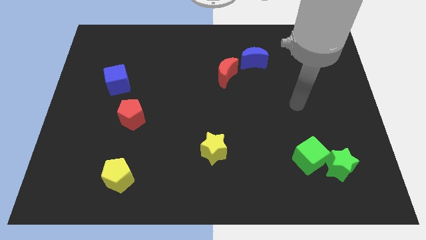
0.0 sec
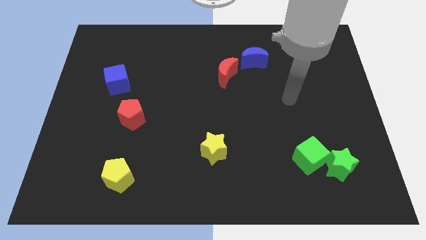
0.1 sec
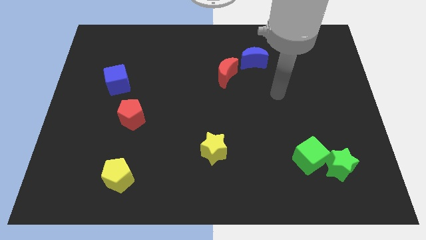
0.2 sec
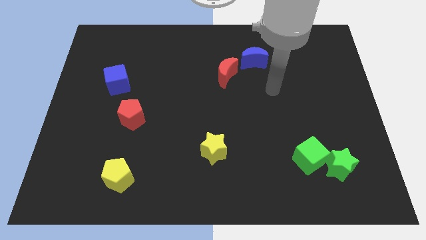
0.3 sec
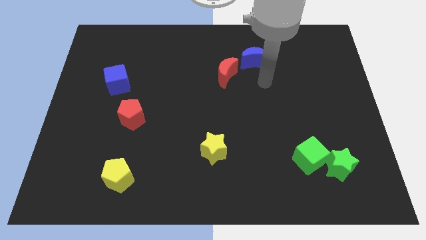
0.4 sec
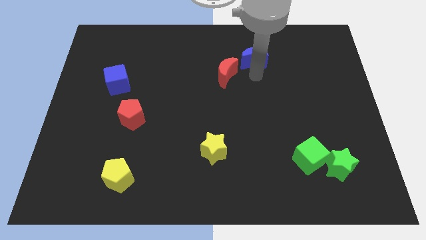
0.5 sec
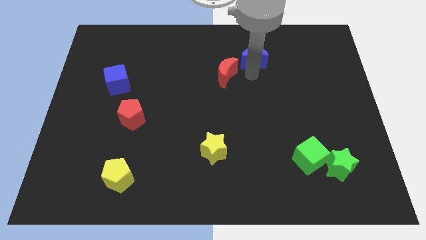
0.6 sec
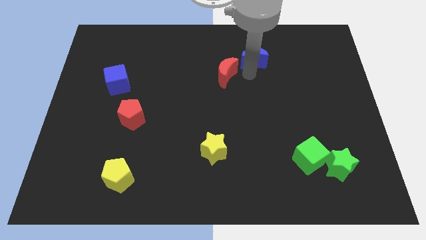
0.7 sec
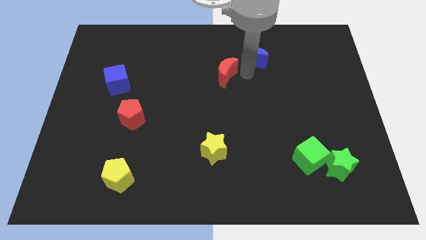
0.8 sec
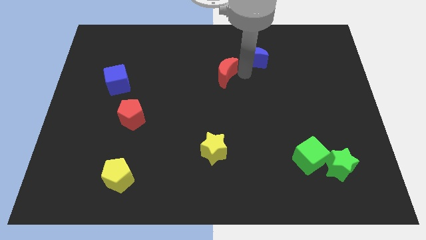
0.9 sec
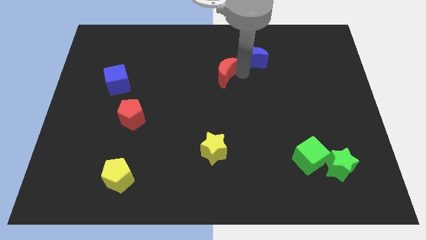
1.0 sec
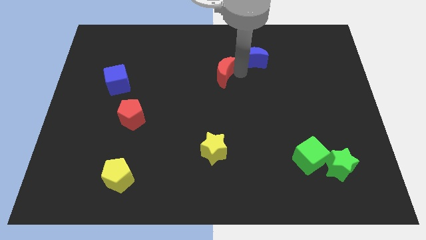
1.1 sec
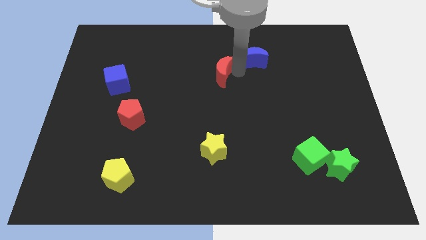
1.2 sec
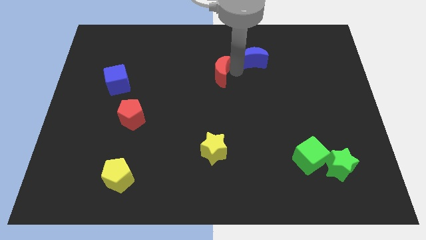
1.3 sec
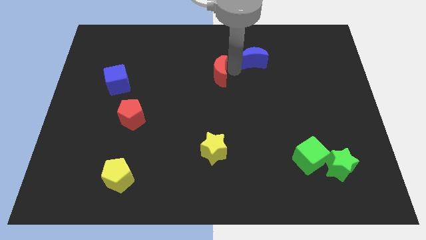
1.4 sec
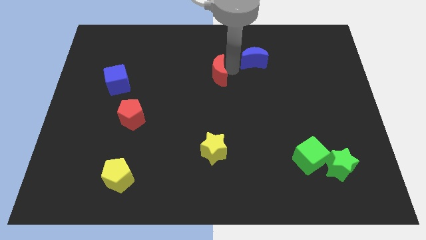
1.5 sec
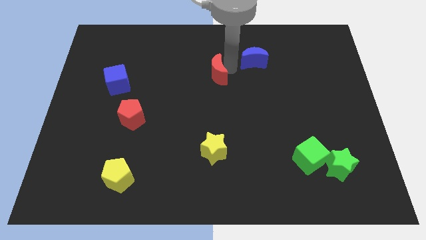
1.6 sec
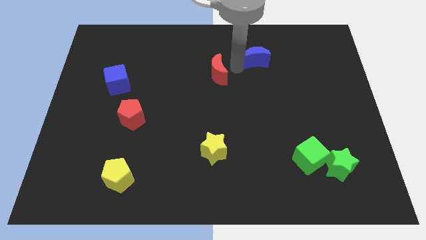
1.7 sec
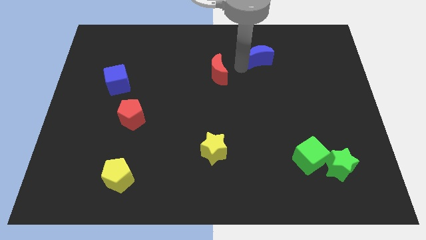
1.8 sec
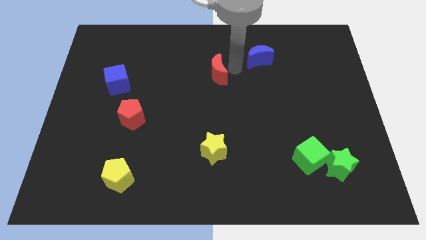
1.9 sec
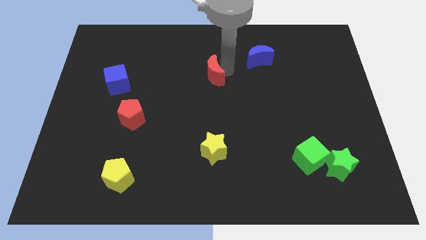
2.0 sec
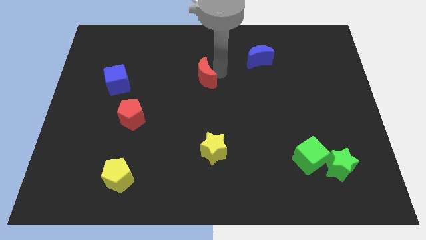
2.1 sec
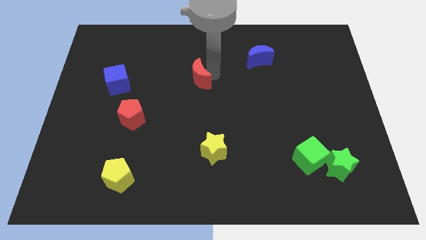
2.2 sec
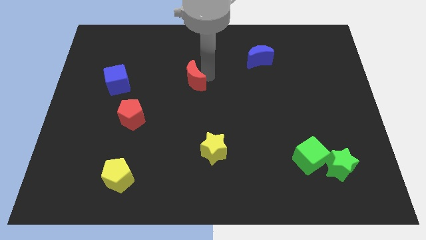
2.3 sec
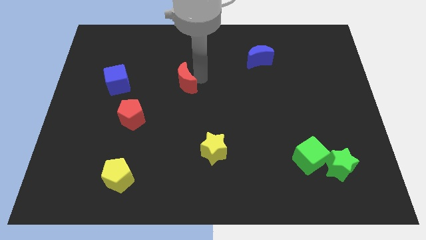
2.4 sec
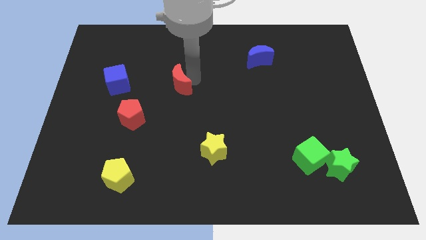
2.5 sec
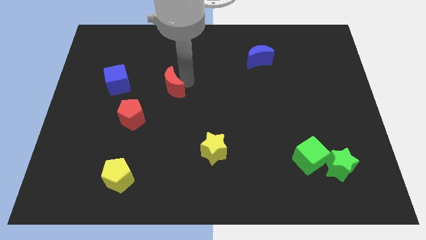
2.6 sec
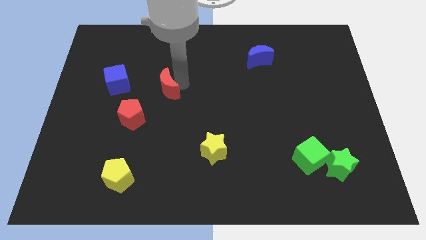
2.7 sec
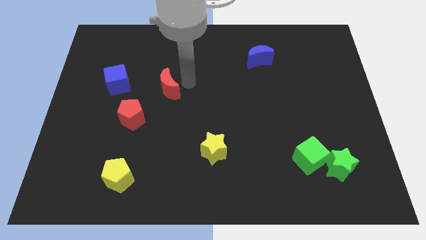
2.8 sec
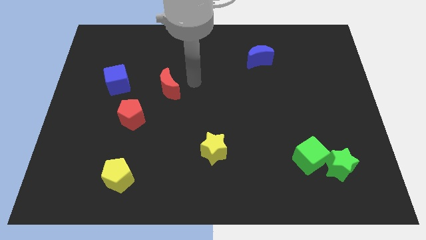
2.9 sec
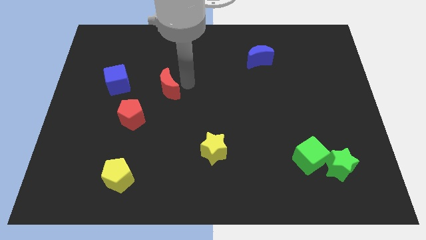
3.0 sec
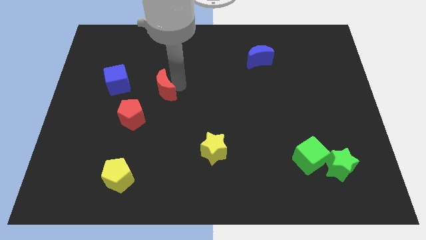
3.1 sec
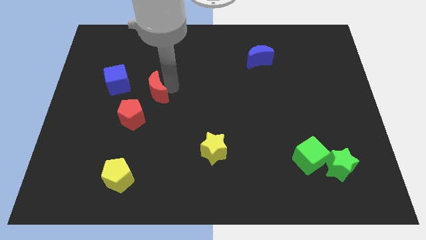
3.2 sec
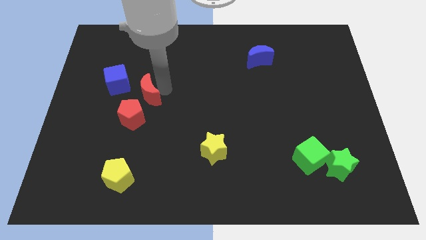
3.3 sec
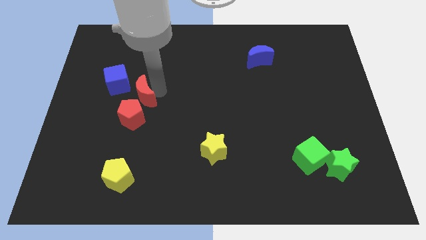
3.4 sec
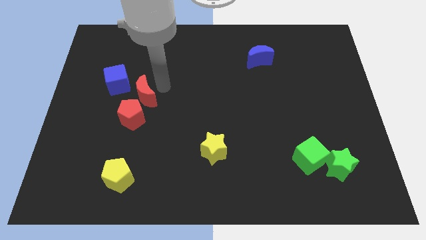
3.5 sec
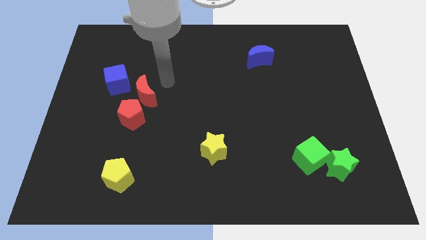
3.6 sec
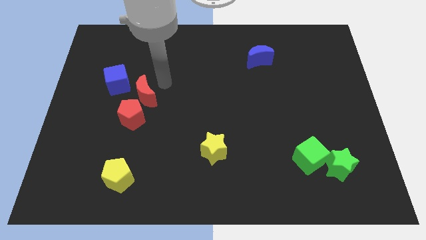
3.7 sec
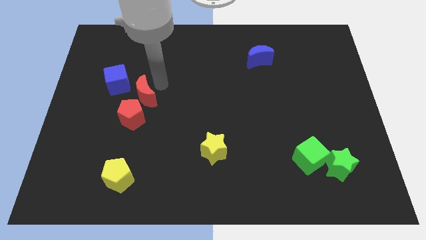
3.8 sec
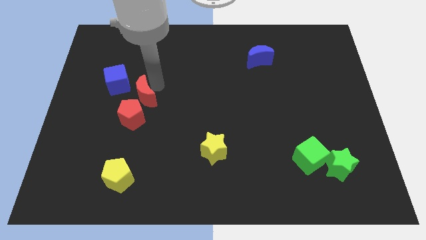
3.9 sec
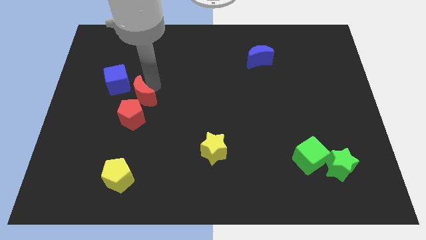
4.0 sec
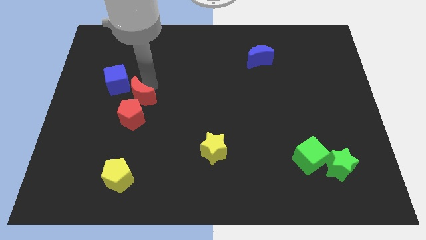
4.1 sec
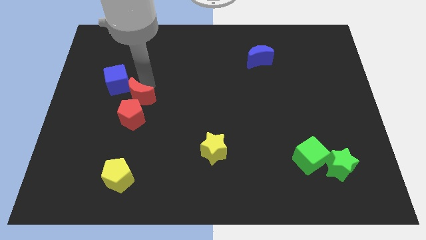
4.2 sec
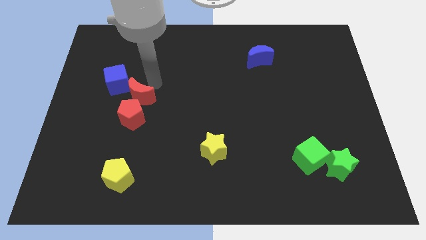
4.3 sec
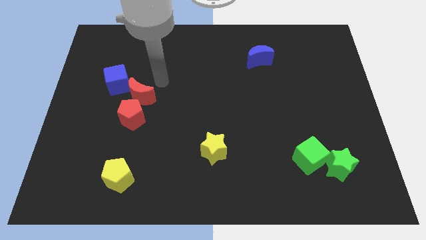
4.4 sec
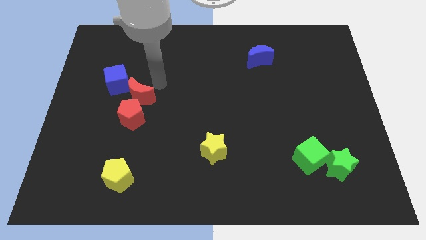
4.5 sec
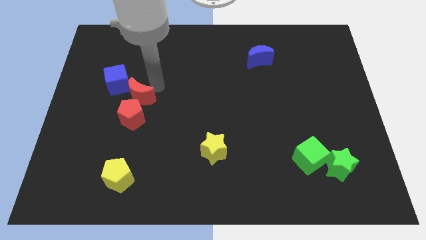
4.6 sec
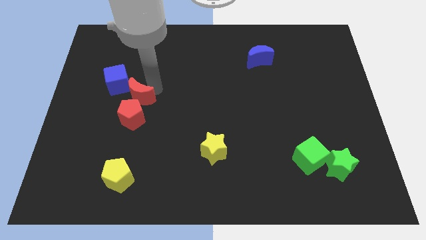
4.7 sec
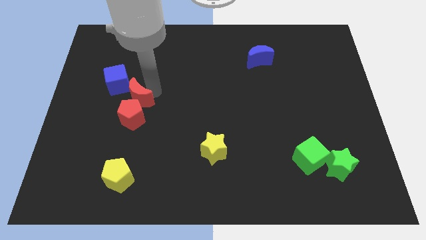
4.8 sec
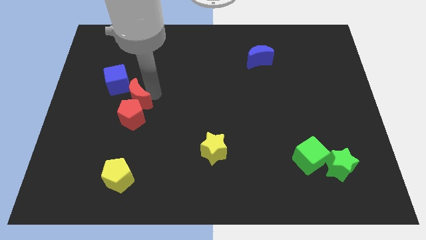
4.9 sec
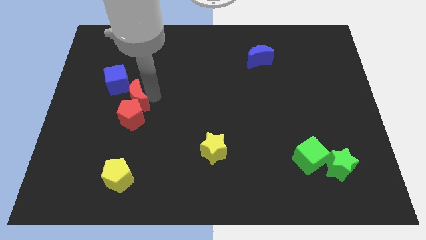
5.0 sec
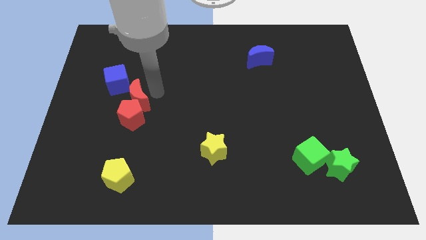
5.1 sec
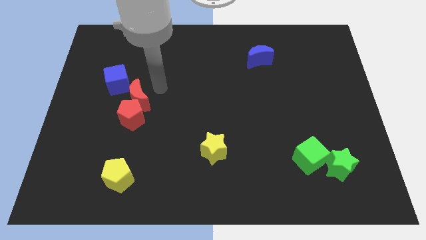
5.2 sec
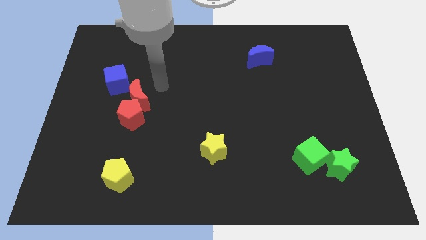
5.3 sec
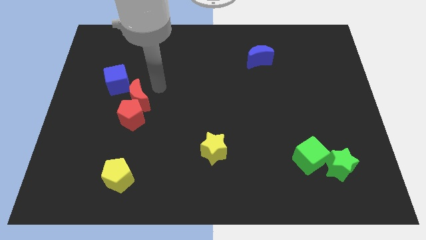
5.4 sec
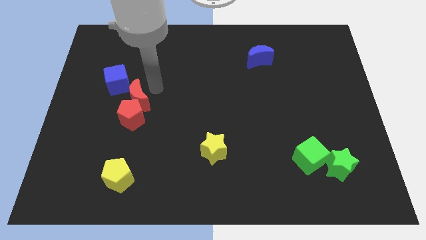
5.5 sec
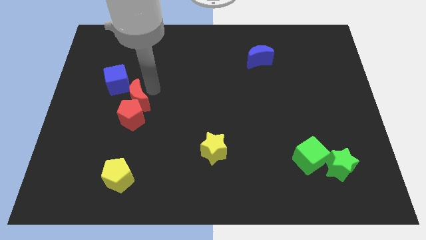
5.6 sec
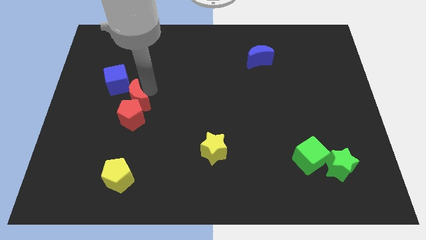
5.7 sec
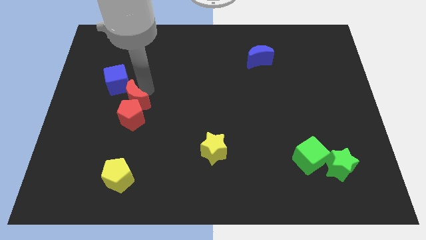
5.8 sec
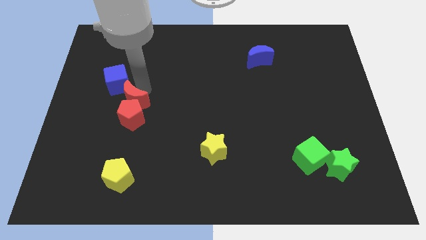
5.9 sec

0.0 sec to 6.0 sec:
push the red moon to the bottom of the blue cube

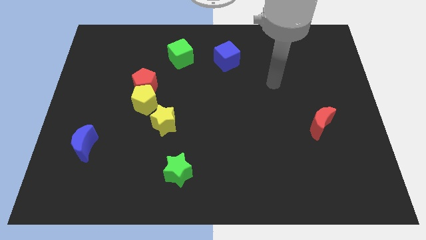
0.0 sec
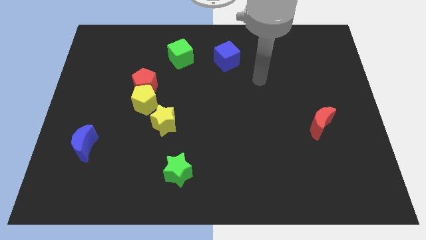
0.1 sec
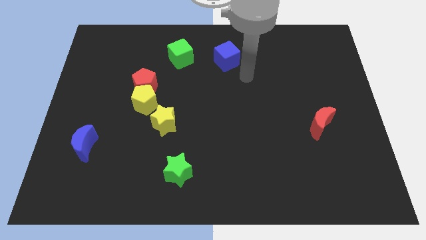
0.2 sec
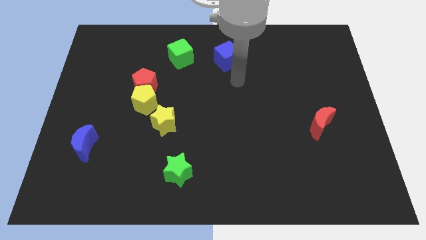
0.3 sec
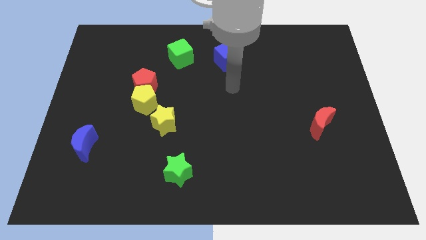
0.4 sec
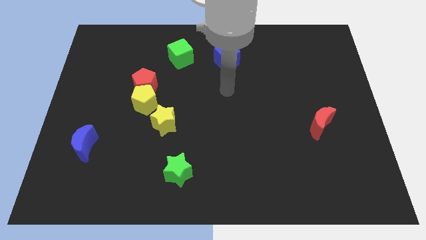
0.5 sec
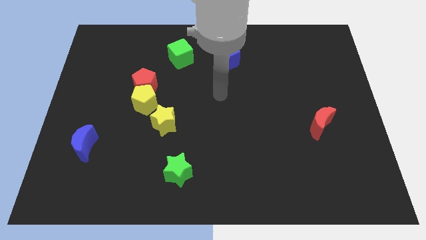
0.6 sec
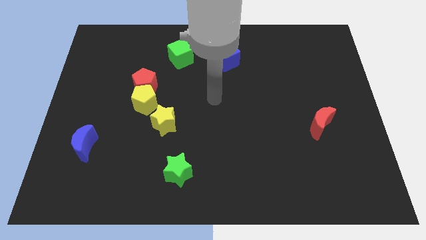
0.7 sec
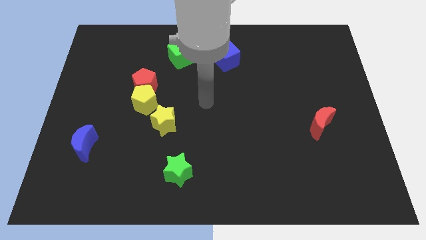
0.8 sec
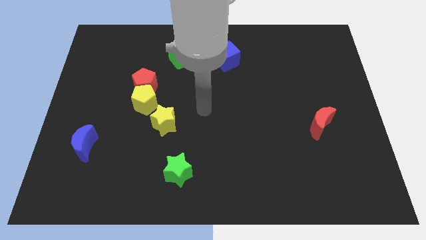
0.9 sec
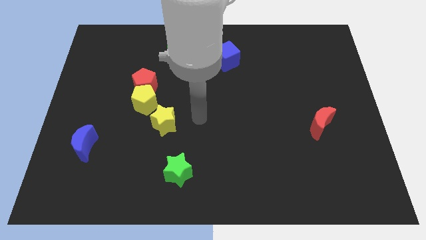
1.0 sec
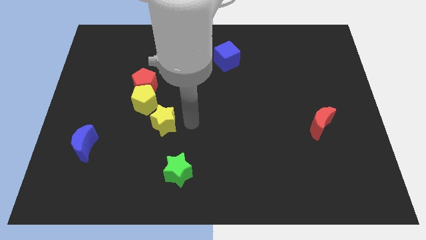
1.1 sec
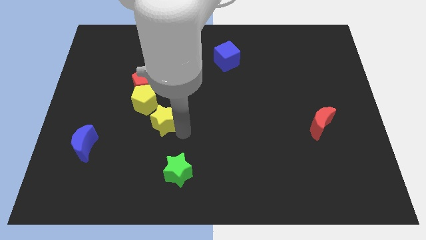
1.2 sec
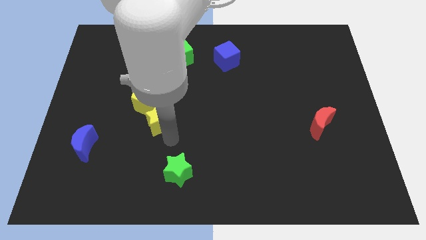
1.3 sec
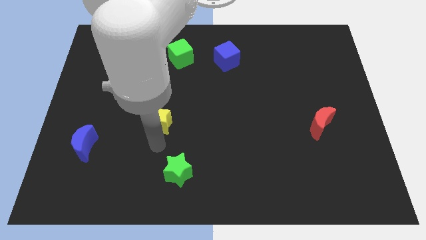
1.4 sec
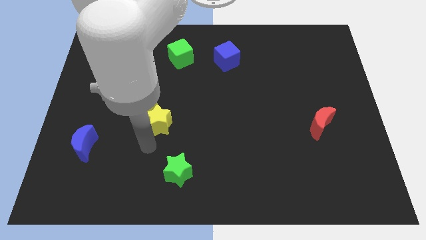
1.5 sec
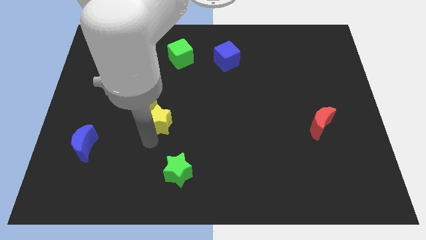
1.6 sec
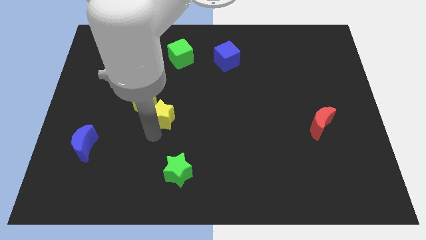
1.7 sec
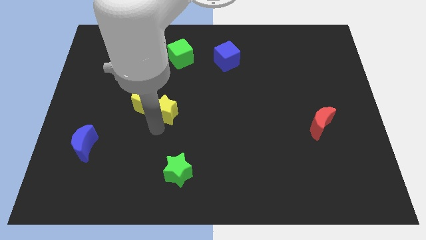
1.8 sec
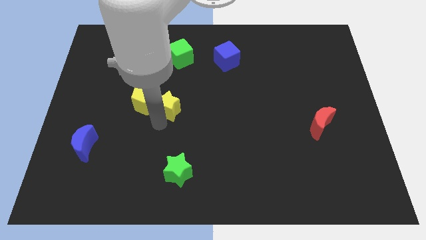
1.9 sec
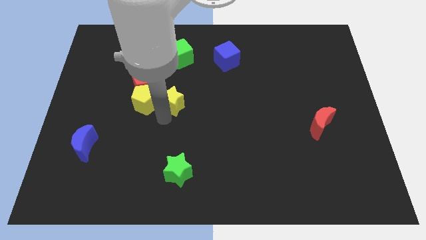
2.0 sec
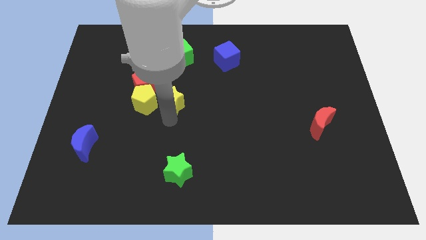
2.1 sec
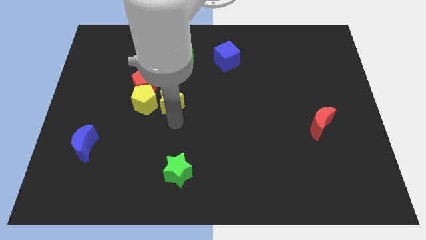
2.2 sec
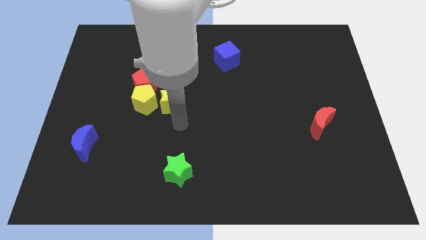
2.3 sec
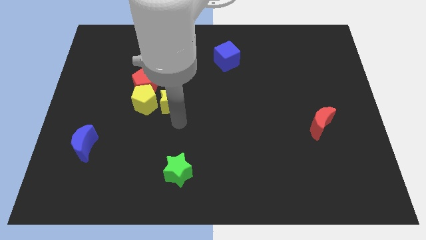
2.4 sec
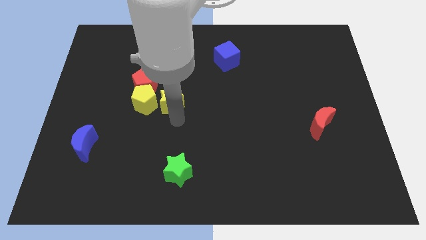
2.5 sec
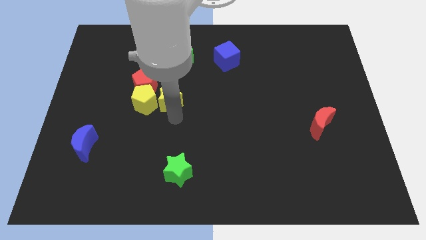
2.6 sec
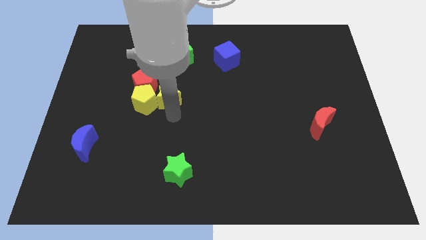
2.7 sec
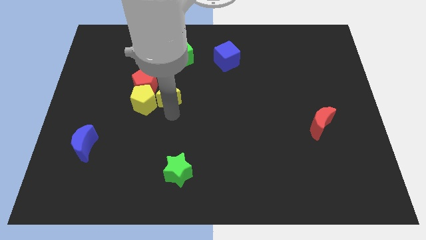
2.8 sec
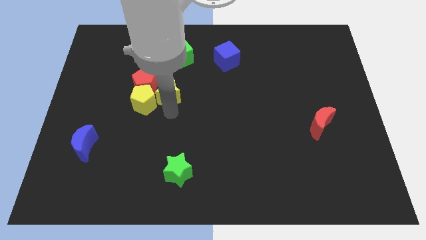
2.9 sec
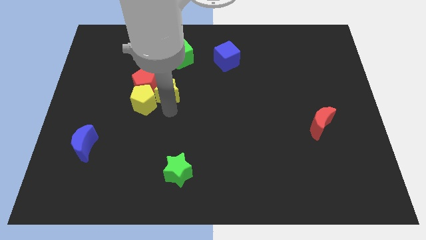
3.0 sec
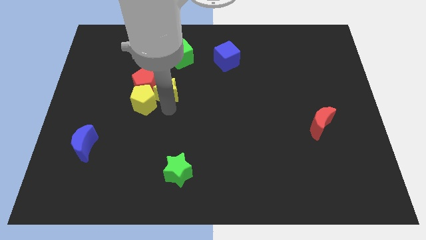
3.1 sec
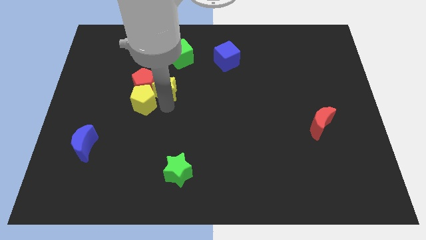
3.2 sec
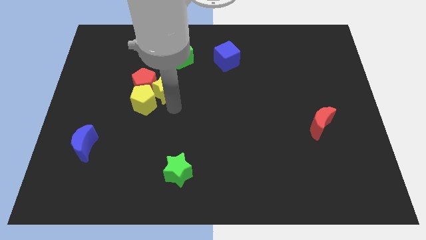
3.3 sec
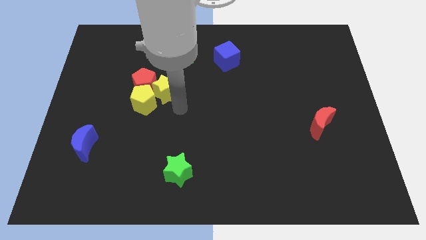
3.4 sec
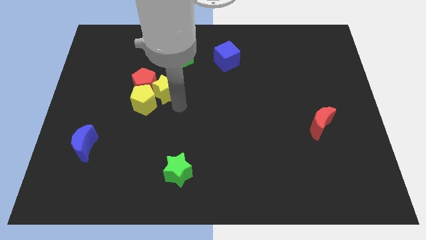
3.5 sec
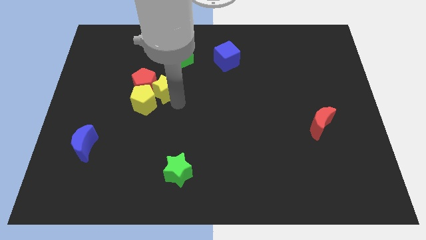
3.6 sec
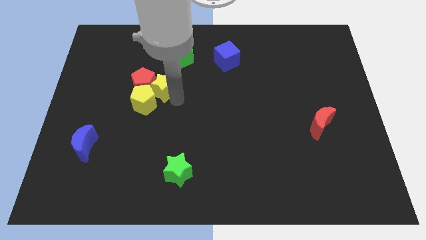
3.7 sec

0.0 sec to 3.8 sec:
push the yellow star above the yellow pentagon
